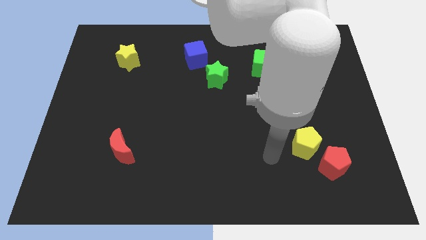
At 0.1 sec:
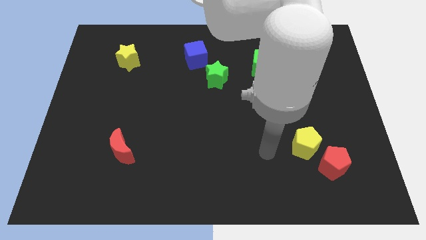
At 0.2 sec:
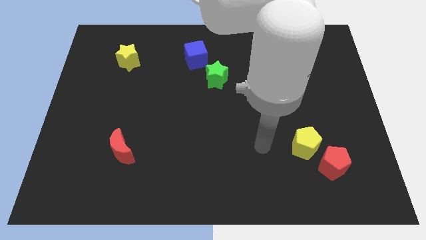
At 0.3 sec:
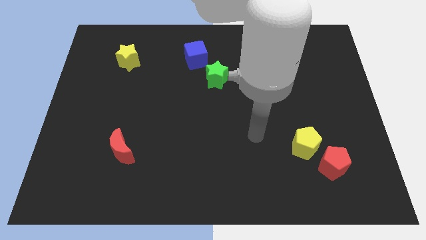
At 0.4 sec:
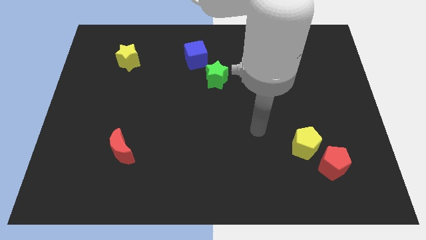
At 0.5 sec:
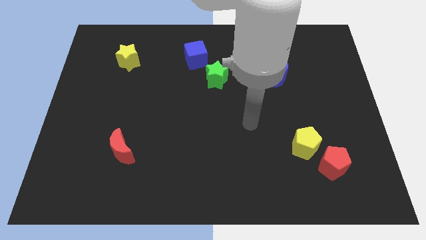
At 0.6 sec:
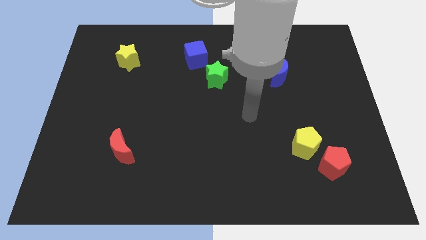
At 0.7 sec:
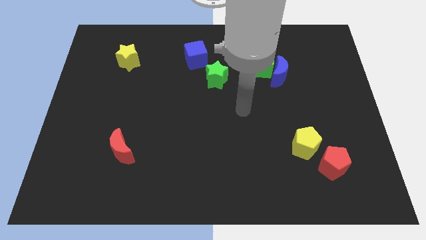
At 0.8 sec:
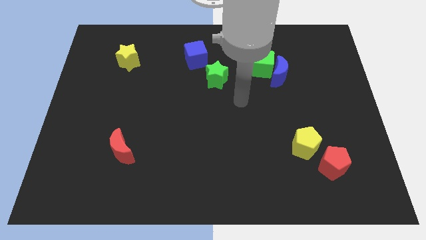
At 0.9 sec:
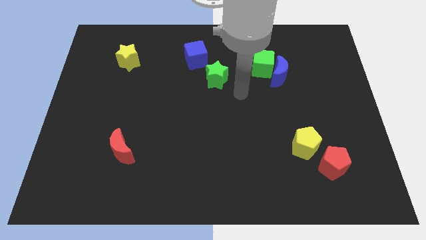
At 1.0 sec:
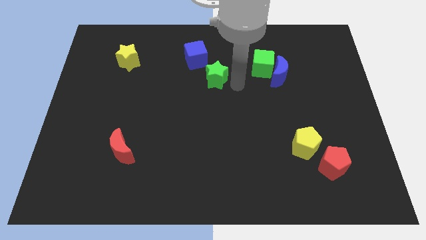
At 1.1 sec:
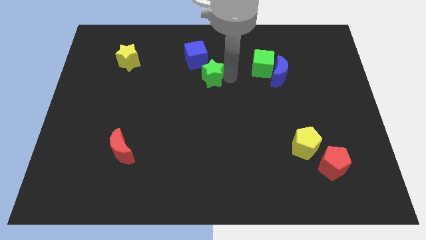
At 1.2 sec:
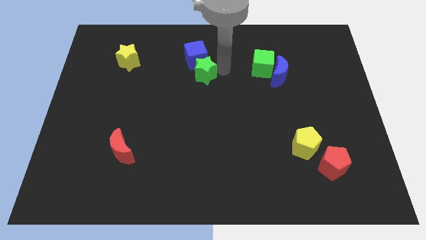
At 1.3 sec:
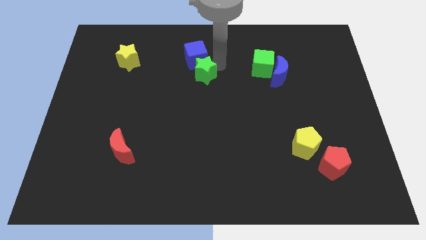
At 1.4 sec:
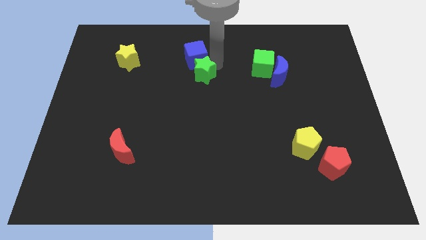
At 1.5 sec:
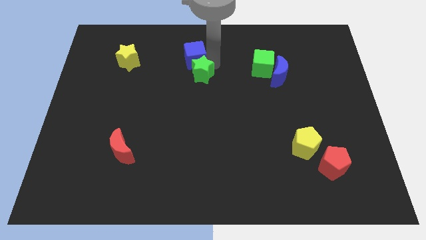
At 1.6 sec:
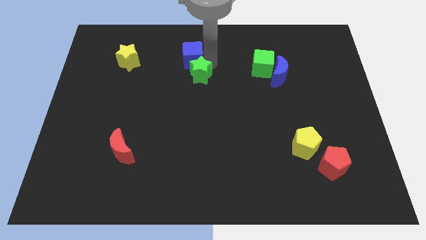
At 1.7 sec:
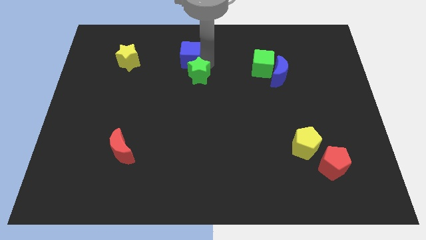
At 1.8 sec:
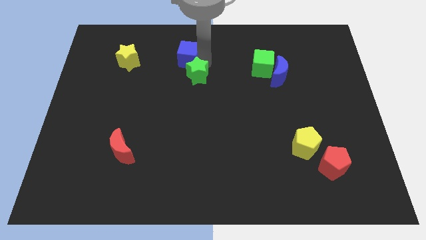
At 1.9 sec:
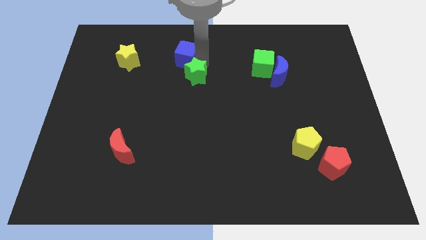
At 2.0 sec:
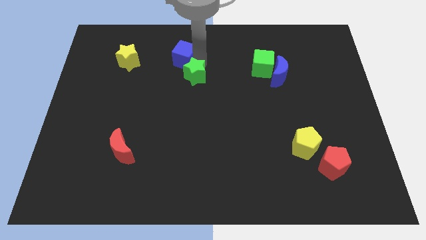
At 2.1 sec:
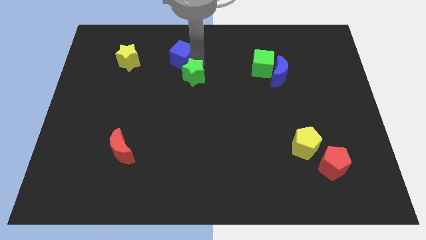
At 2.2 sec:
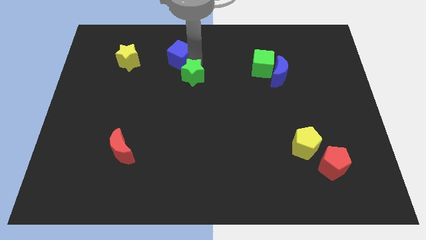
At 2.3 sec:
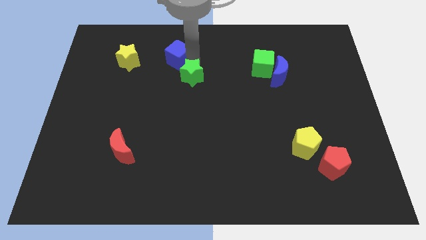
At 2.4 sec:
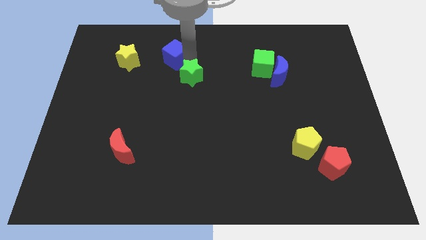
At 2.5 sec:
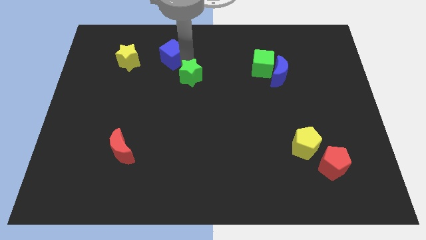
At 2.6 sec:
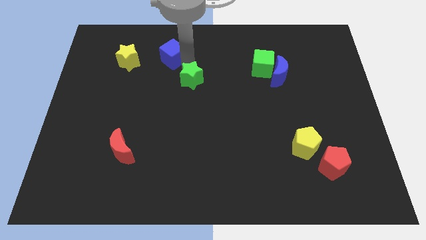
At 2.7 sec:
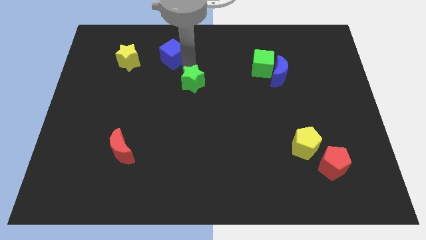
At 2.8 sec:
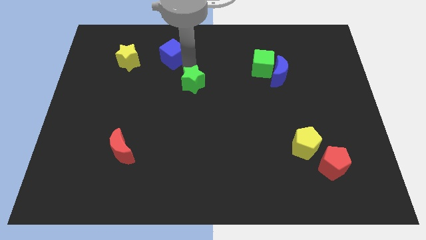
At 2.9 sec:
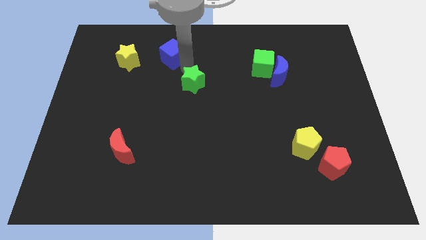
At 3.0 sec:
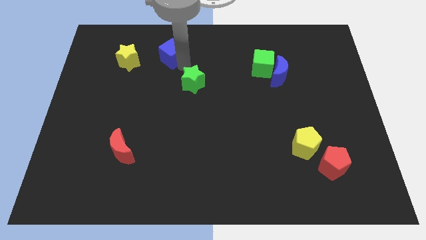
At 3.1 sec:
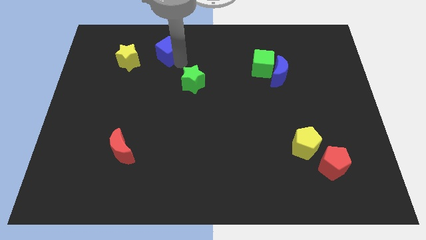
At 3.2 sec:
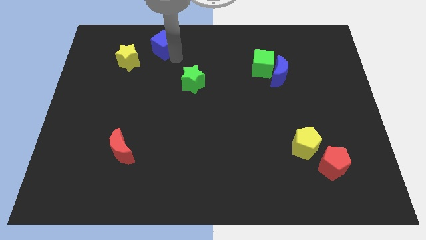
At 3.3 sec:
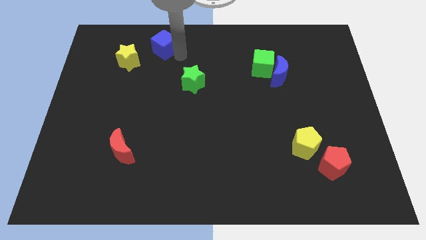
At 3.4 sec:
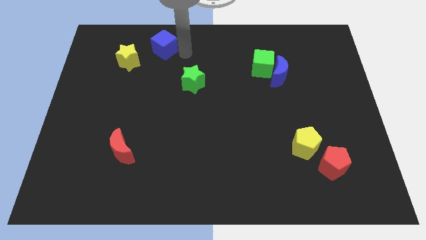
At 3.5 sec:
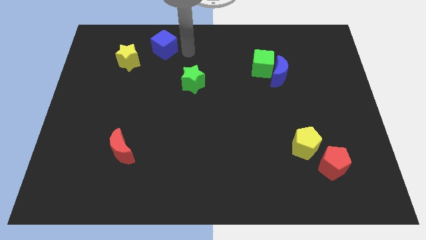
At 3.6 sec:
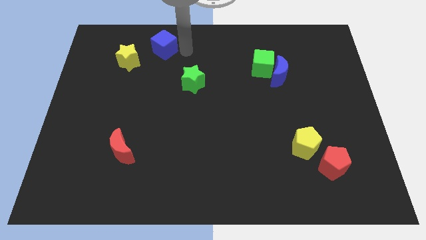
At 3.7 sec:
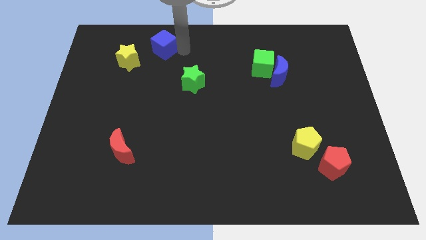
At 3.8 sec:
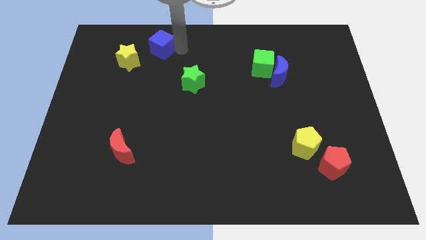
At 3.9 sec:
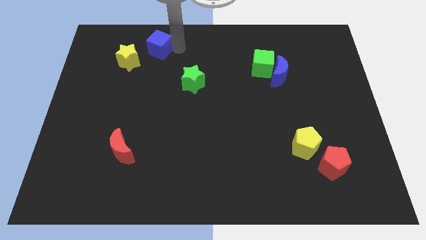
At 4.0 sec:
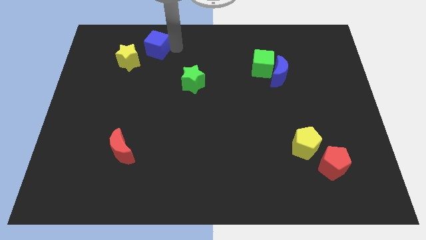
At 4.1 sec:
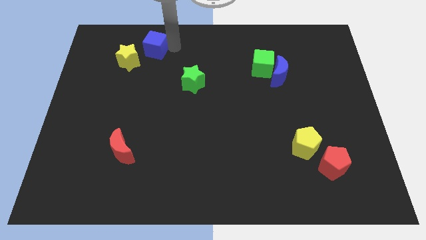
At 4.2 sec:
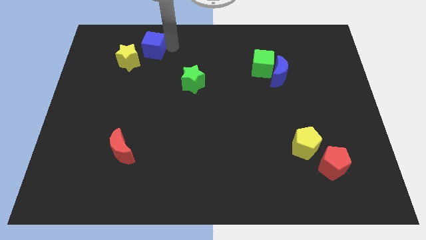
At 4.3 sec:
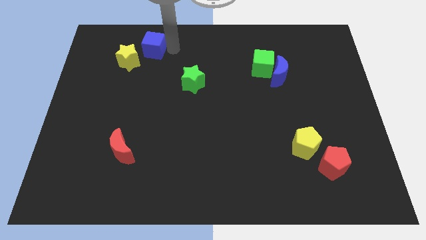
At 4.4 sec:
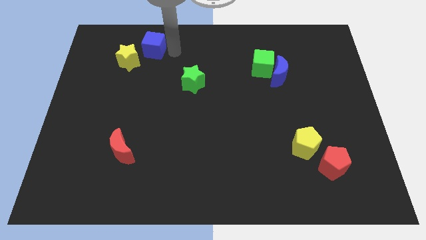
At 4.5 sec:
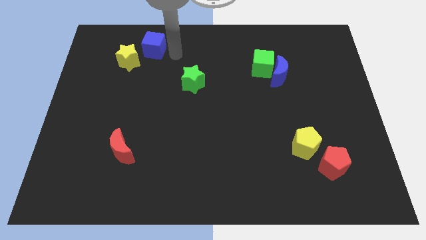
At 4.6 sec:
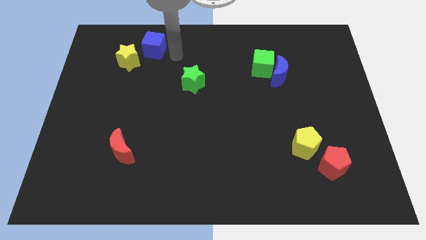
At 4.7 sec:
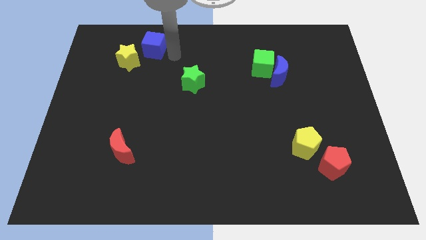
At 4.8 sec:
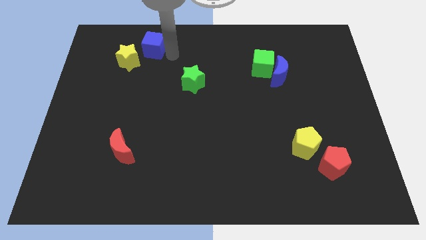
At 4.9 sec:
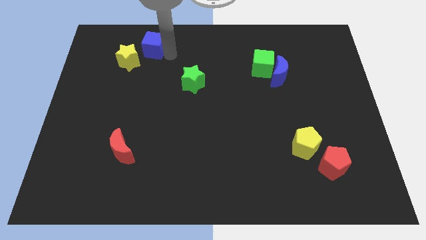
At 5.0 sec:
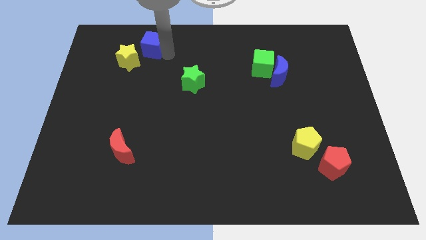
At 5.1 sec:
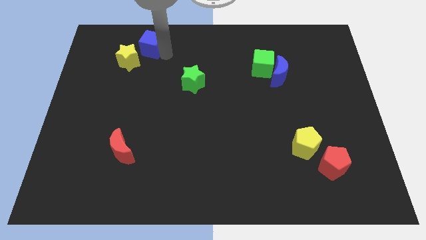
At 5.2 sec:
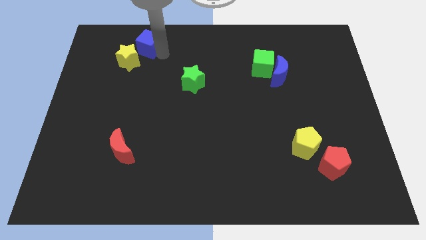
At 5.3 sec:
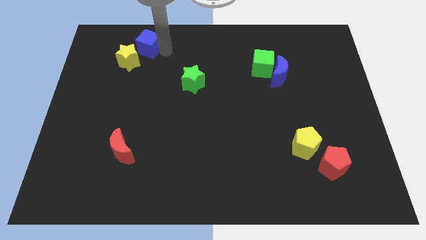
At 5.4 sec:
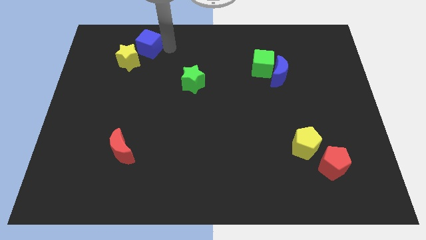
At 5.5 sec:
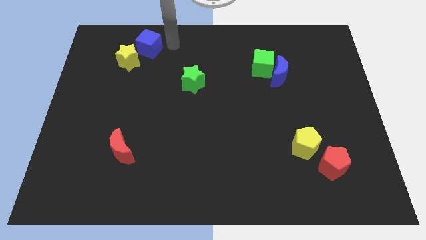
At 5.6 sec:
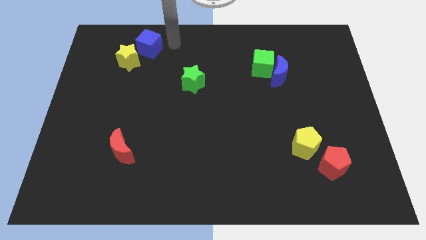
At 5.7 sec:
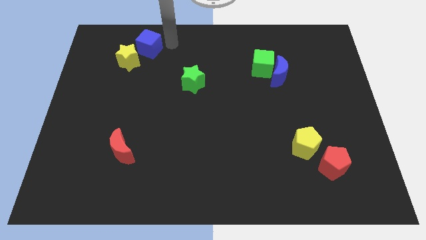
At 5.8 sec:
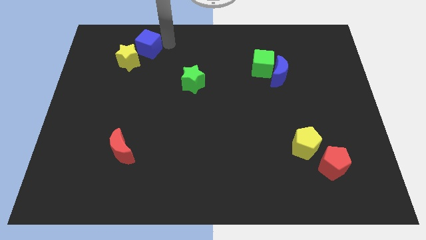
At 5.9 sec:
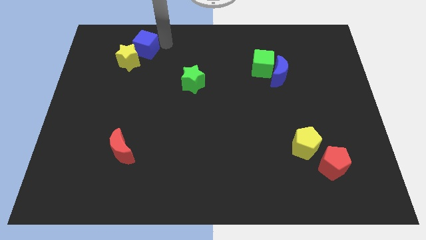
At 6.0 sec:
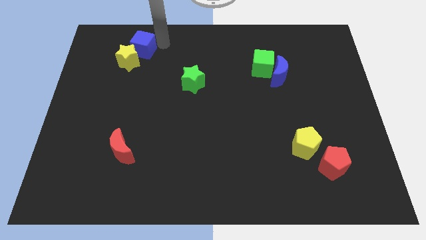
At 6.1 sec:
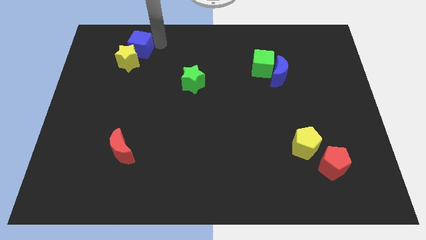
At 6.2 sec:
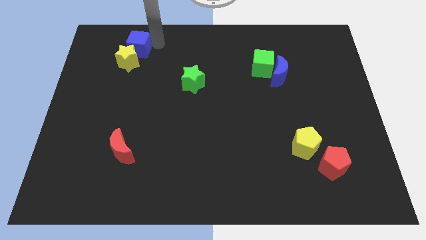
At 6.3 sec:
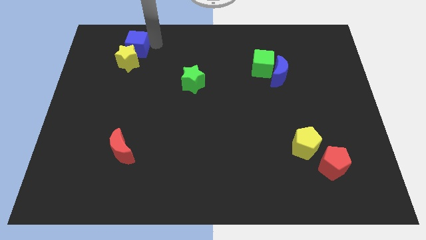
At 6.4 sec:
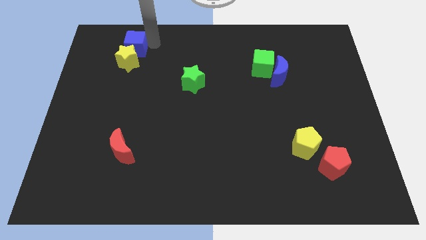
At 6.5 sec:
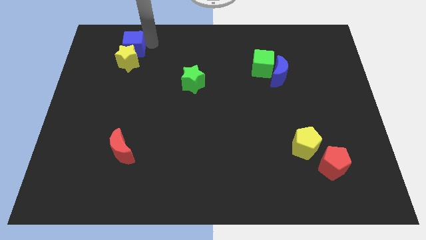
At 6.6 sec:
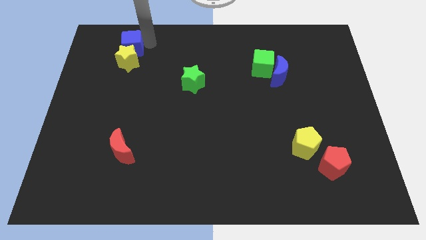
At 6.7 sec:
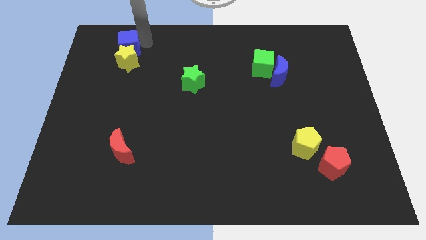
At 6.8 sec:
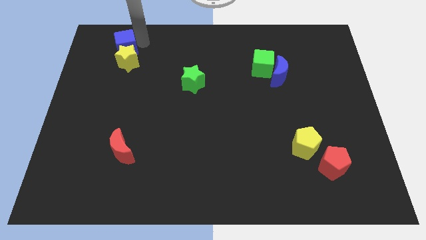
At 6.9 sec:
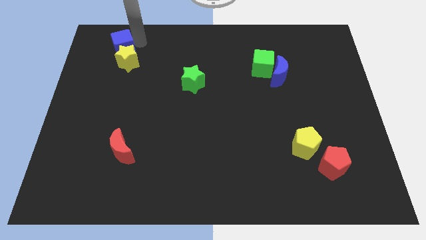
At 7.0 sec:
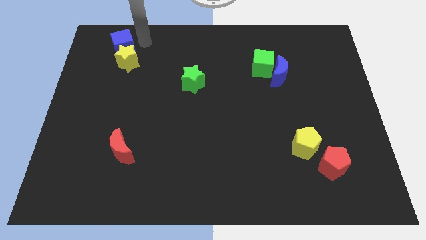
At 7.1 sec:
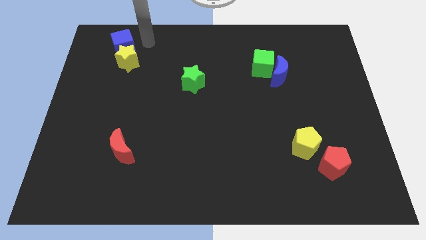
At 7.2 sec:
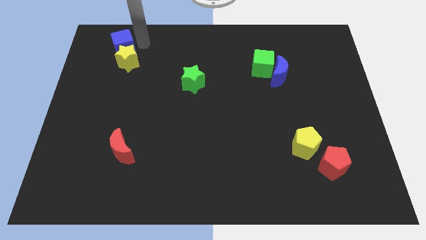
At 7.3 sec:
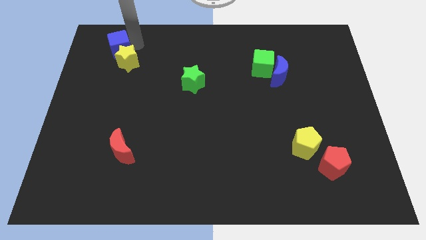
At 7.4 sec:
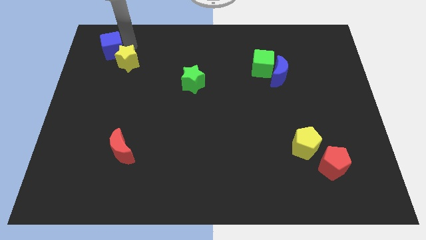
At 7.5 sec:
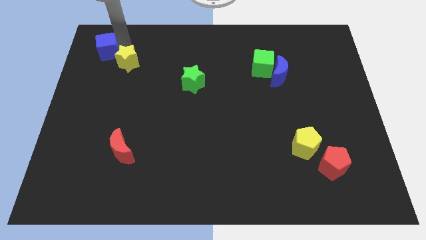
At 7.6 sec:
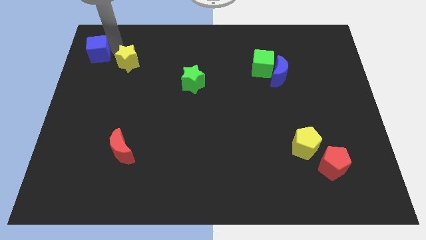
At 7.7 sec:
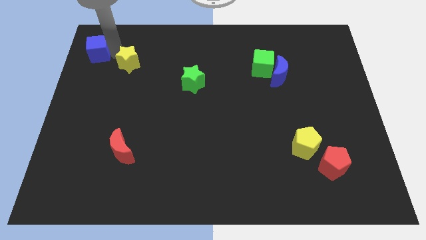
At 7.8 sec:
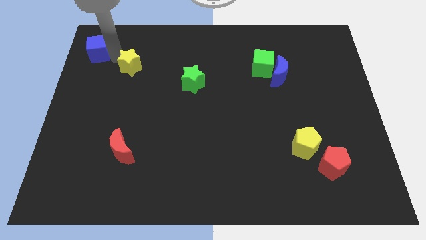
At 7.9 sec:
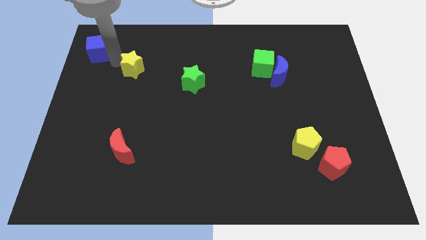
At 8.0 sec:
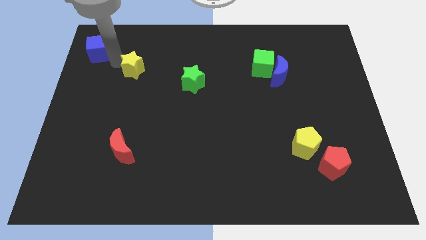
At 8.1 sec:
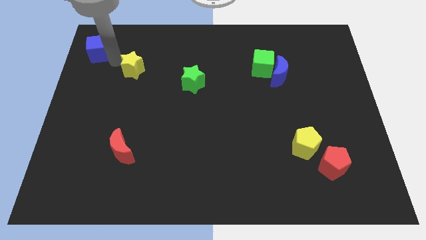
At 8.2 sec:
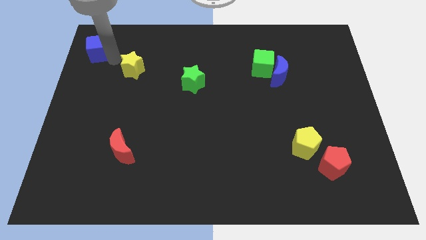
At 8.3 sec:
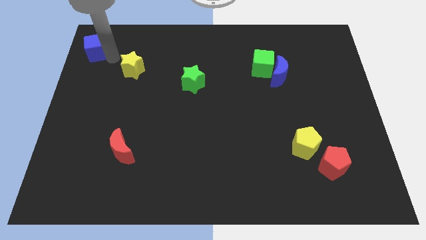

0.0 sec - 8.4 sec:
move the blue cube to the top left of the board
